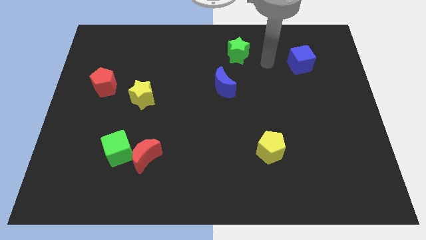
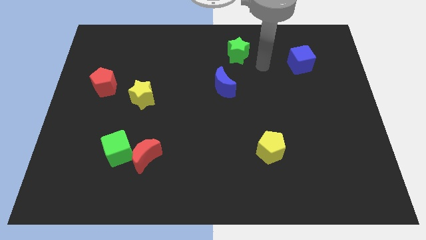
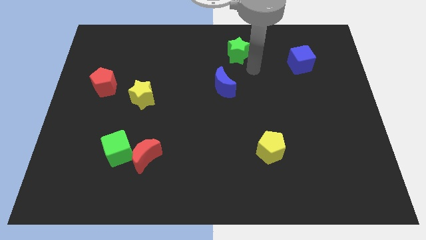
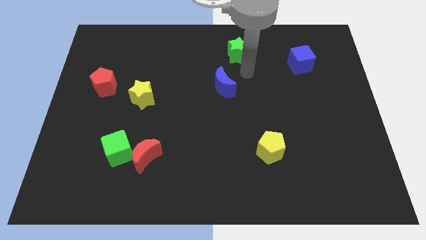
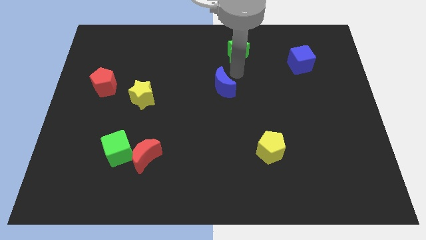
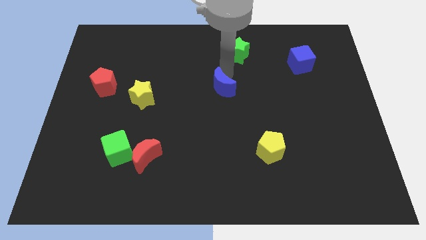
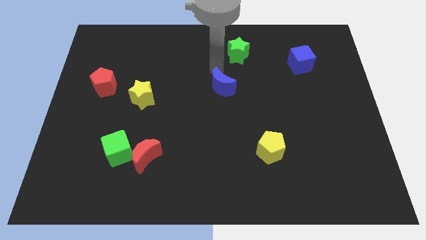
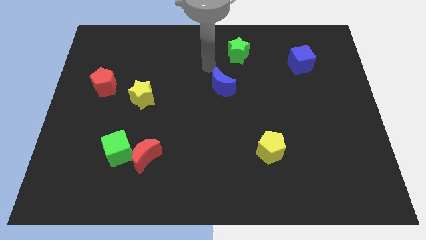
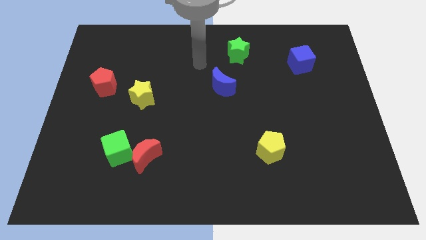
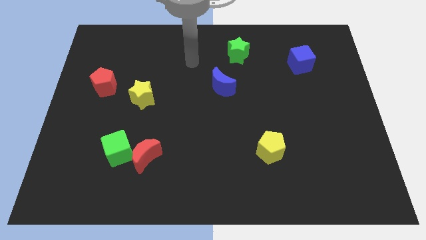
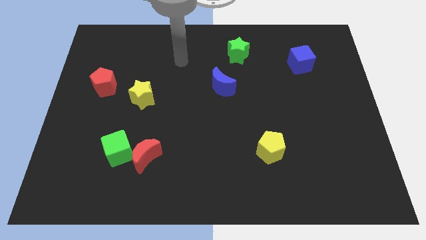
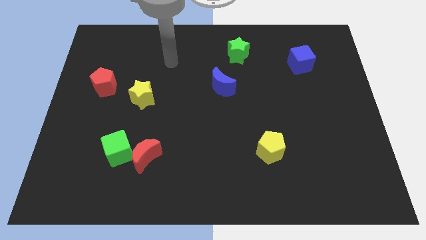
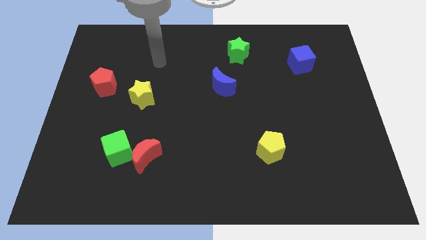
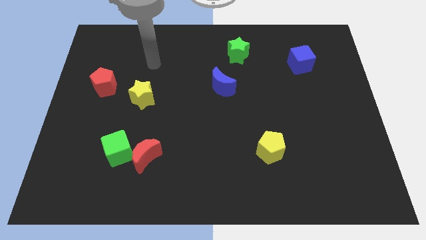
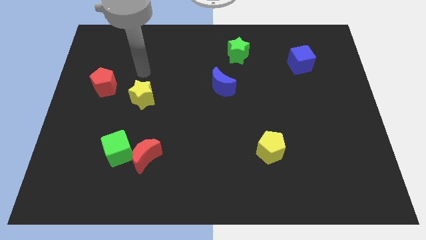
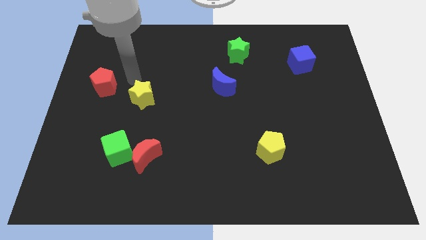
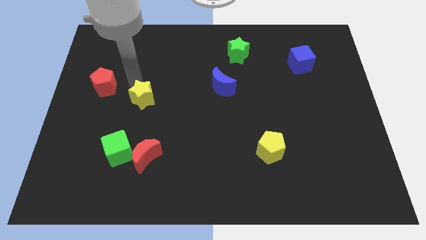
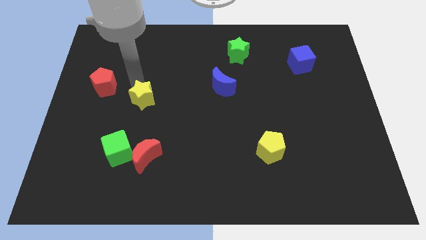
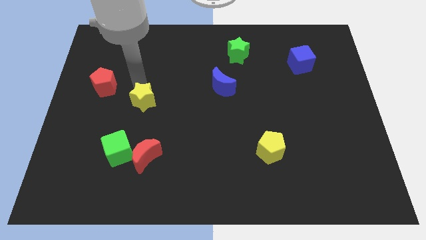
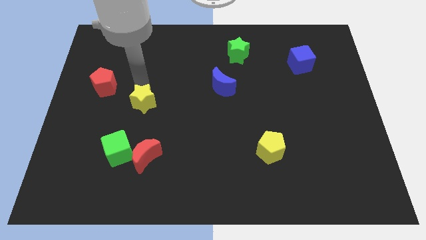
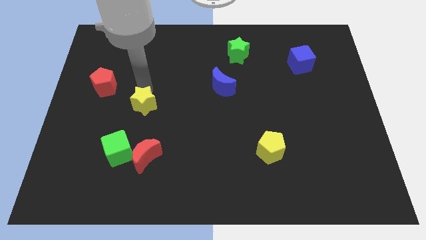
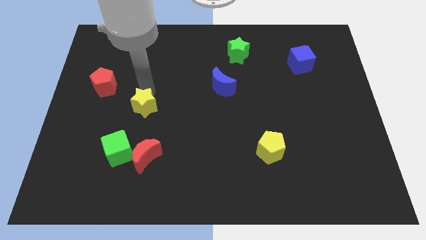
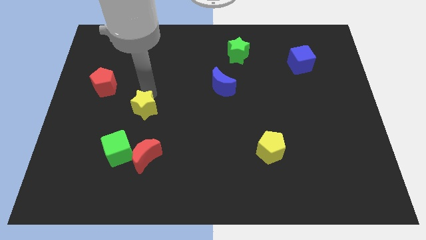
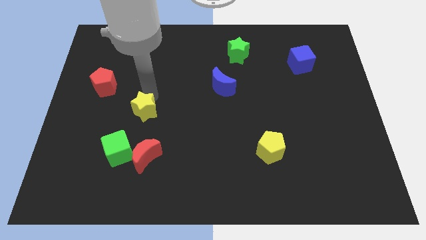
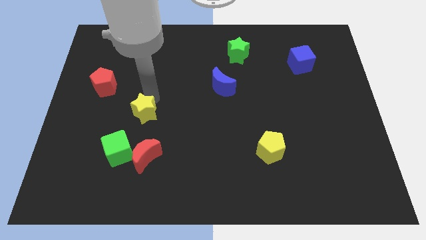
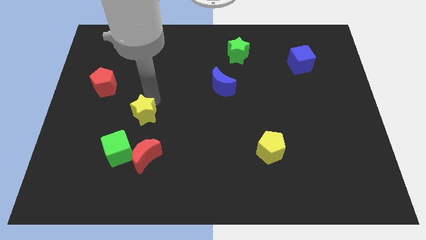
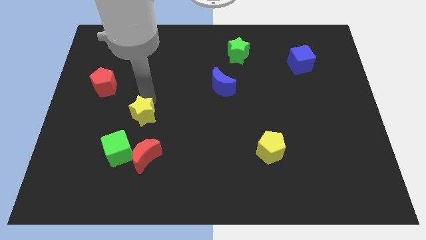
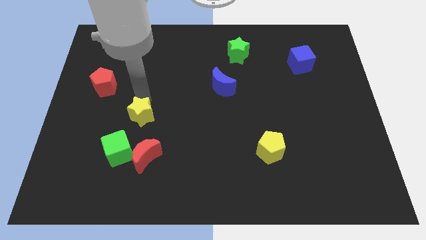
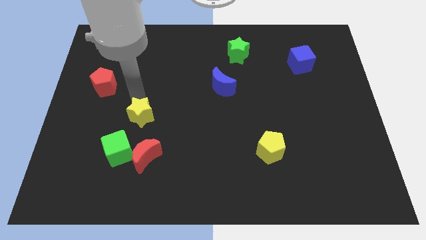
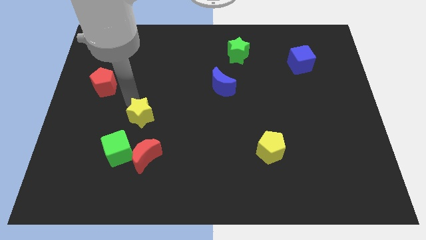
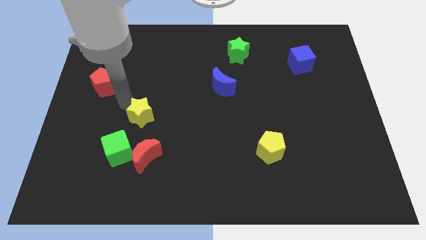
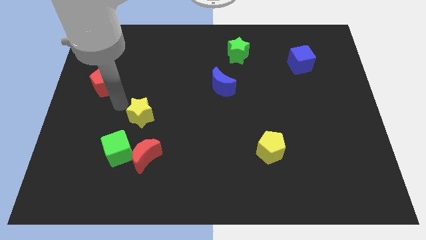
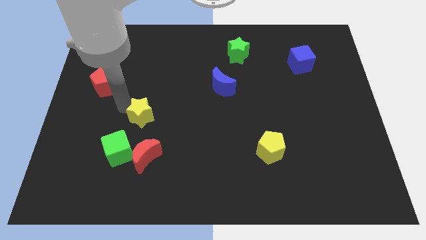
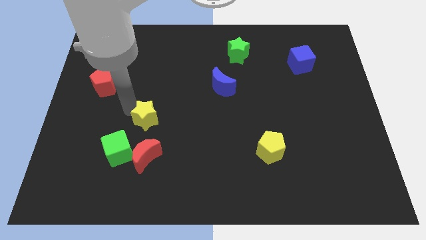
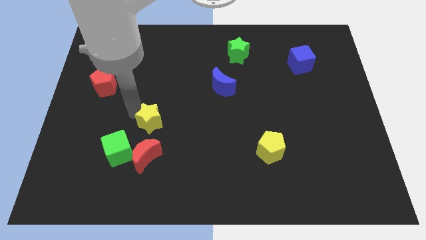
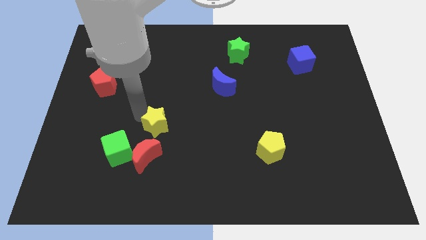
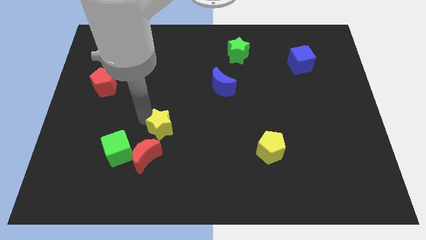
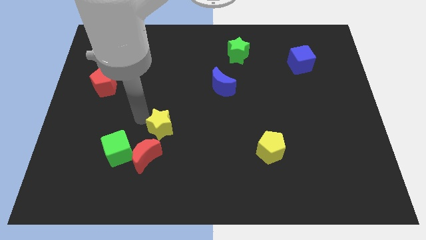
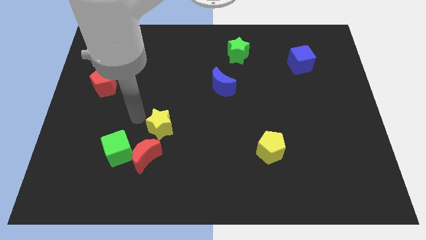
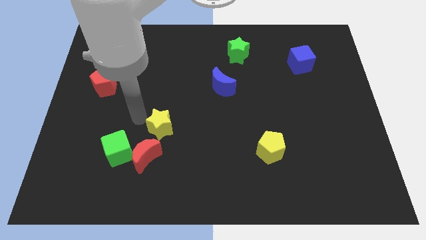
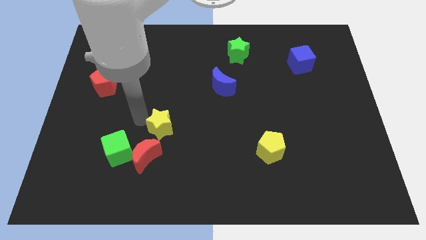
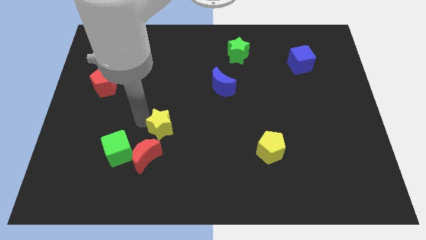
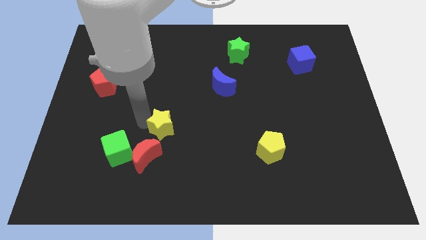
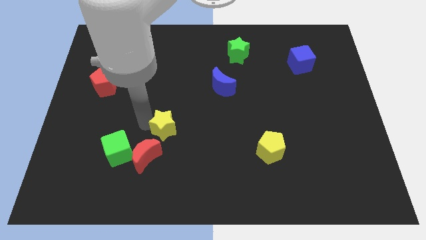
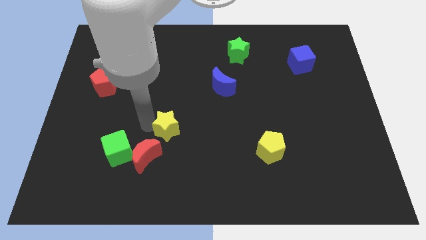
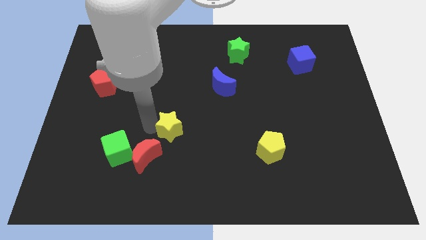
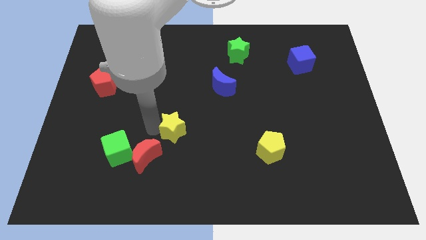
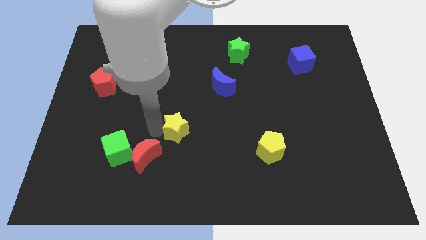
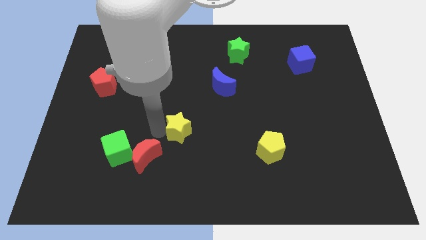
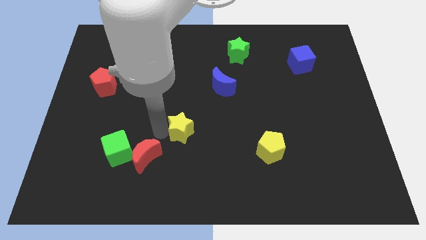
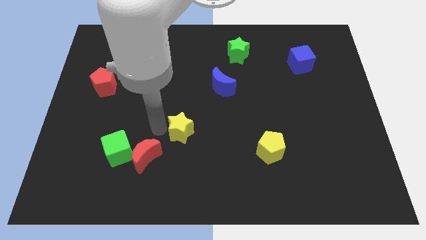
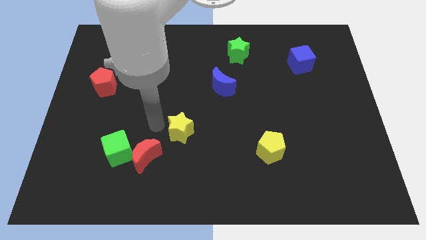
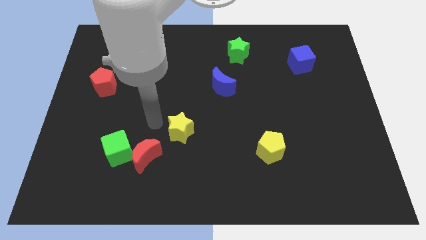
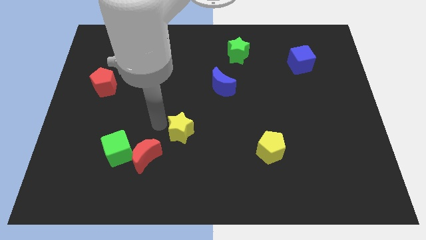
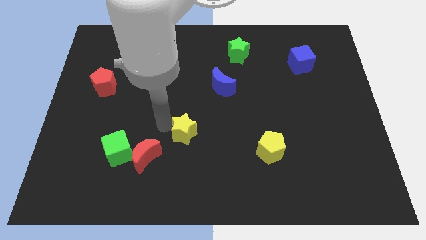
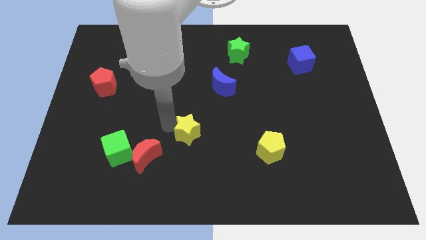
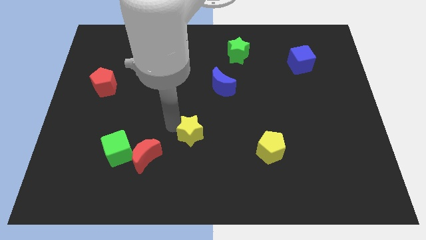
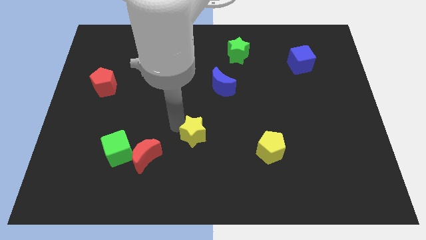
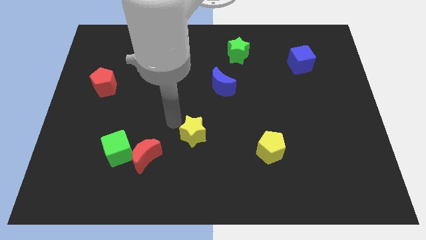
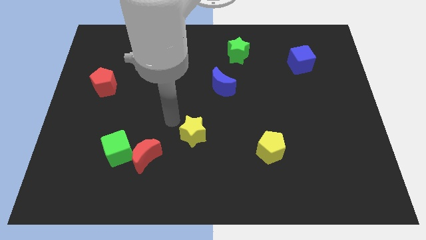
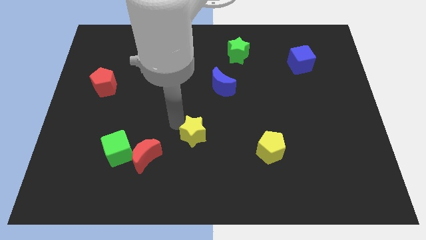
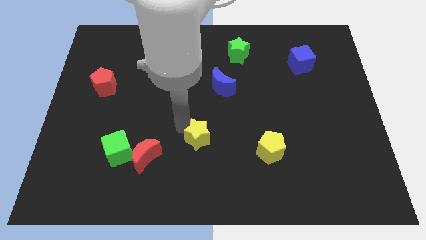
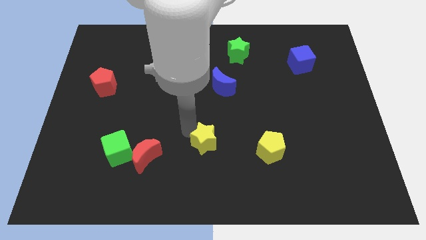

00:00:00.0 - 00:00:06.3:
put the yellow star left of the yellow pentagon

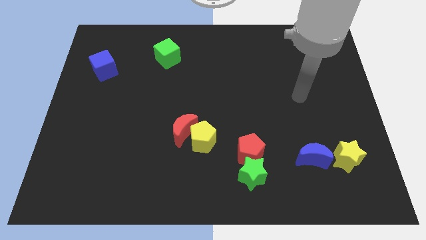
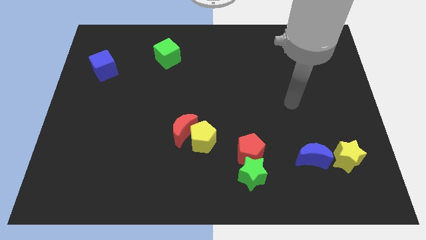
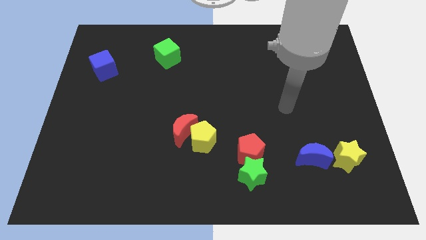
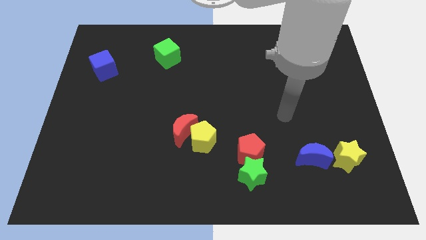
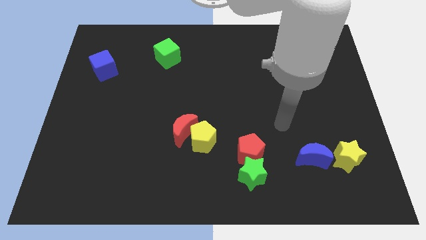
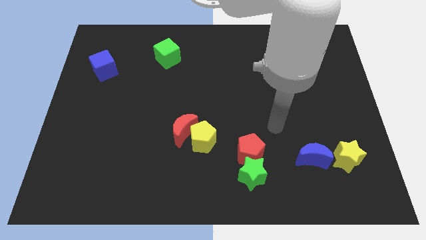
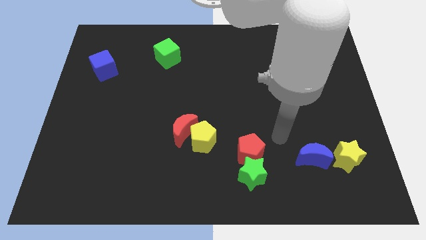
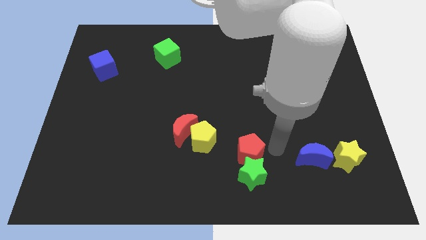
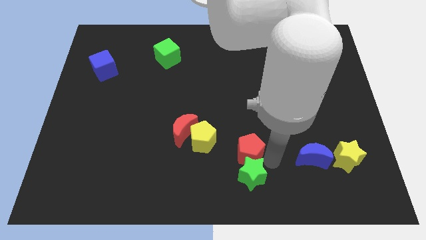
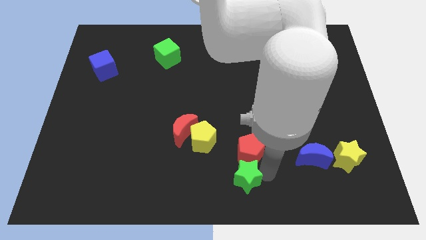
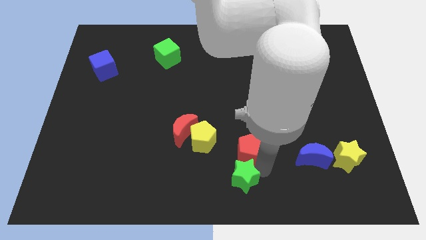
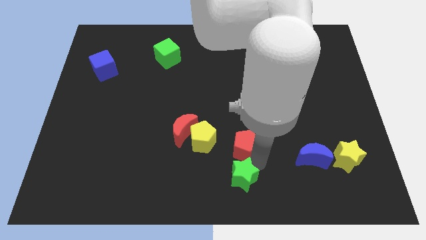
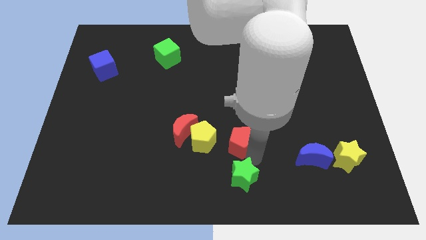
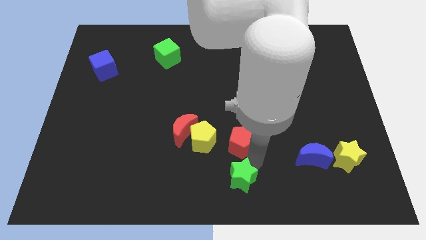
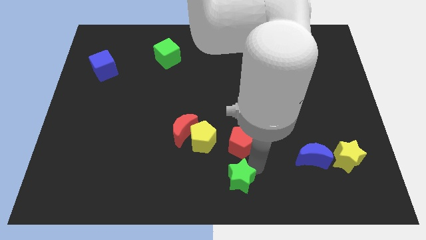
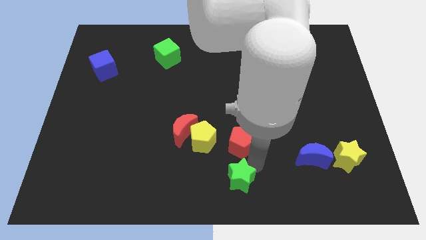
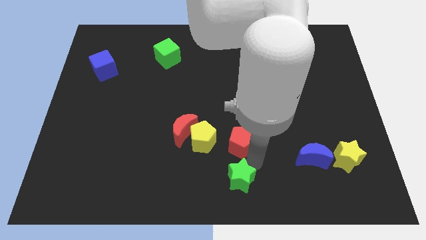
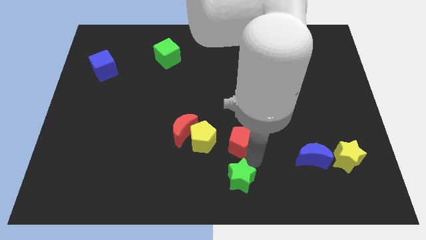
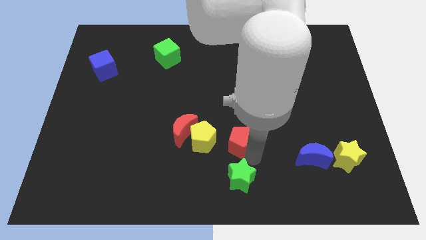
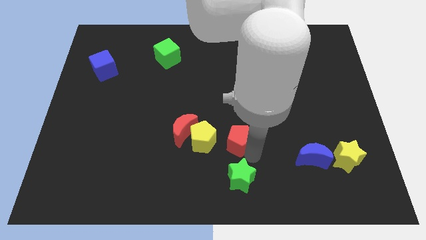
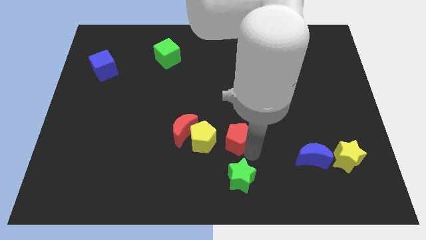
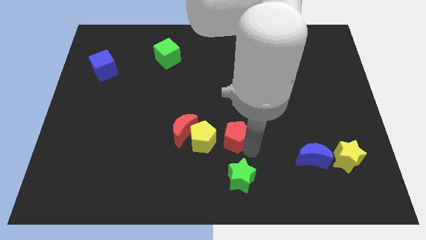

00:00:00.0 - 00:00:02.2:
move the red pentagon diagonally up and to the right of the yellow pentagon
